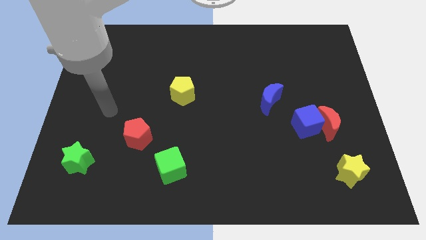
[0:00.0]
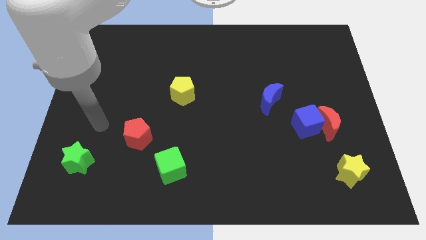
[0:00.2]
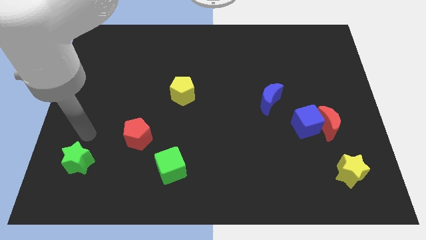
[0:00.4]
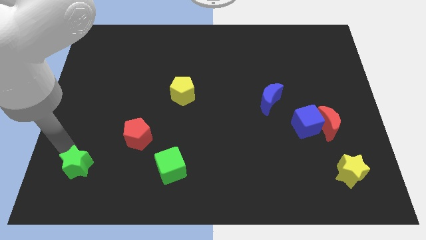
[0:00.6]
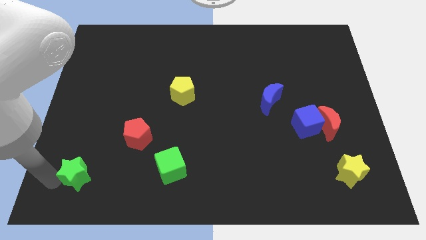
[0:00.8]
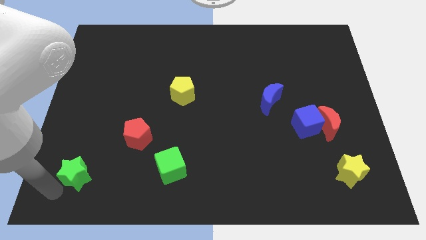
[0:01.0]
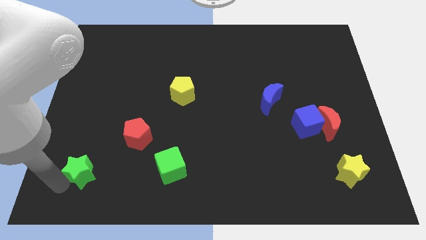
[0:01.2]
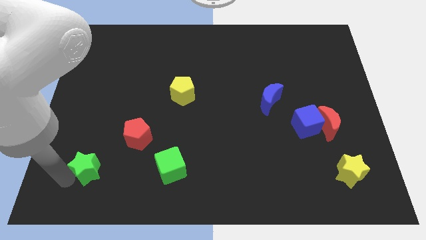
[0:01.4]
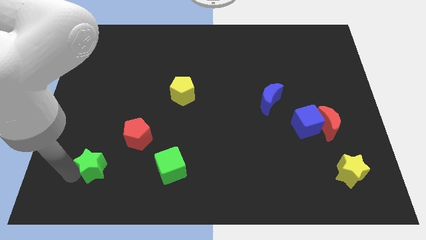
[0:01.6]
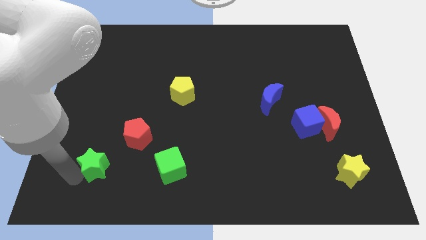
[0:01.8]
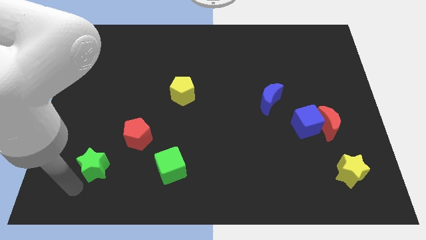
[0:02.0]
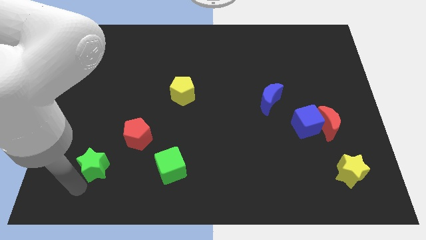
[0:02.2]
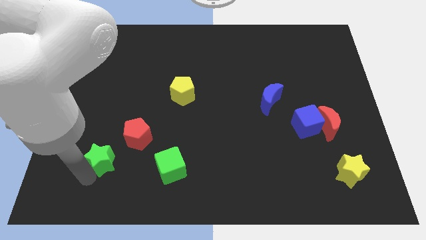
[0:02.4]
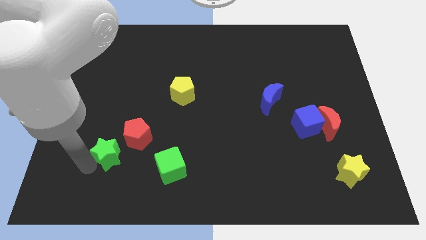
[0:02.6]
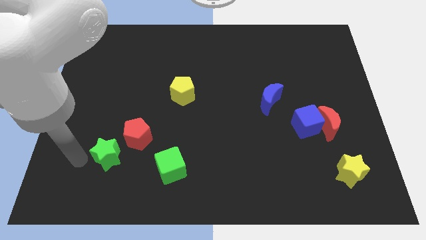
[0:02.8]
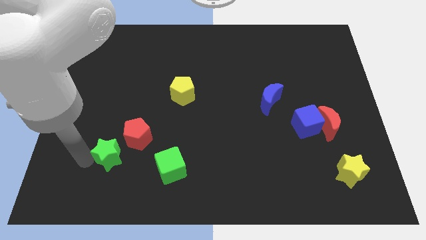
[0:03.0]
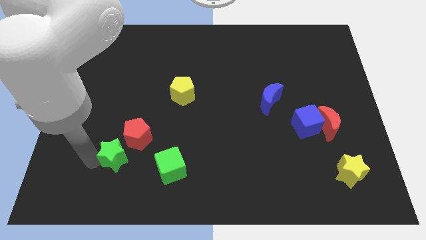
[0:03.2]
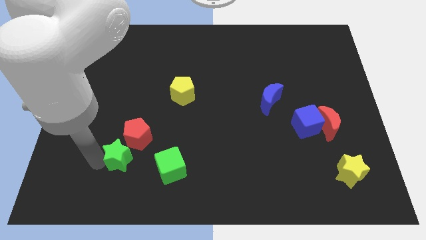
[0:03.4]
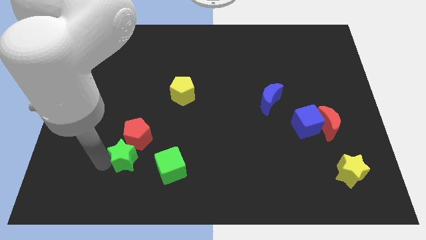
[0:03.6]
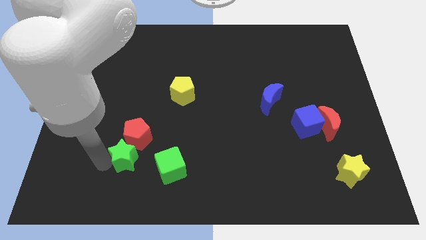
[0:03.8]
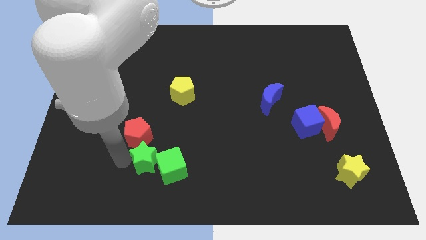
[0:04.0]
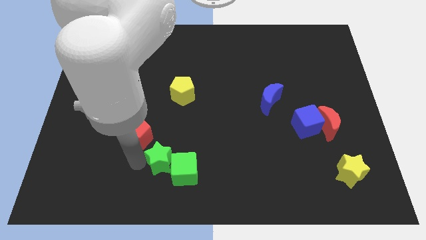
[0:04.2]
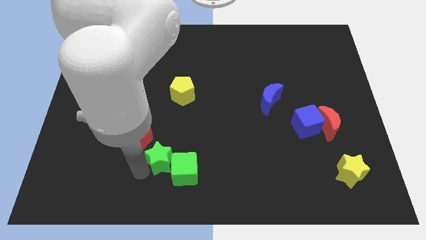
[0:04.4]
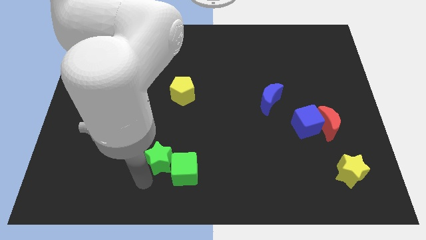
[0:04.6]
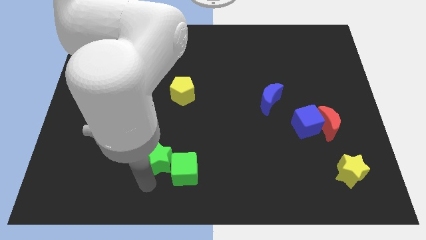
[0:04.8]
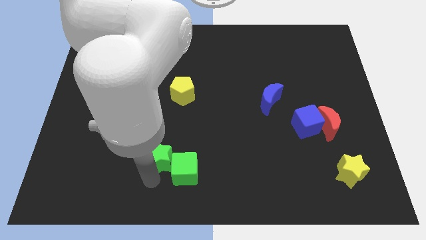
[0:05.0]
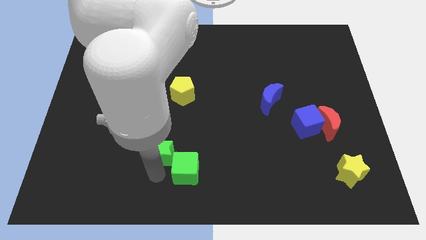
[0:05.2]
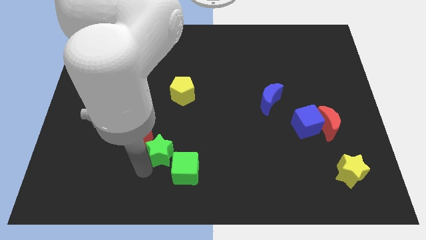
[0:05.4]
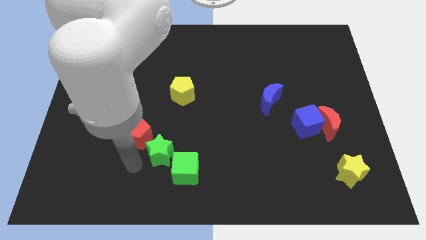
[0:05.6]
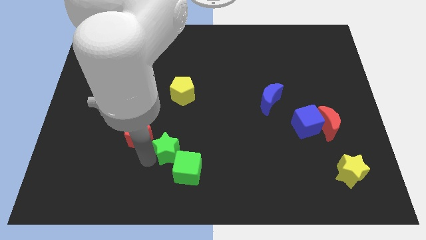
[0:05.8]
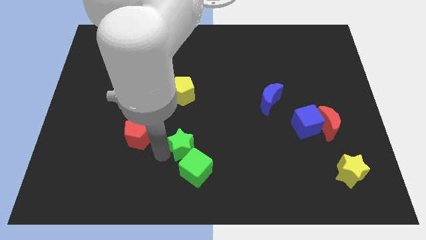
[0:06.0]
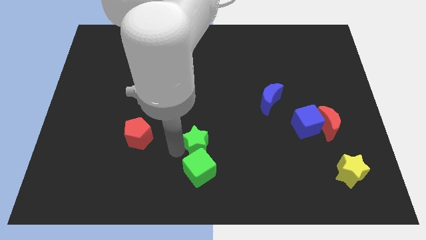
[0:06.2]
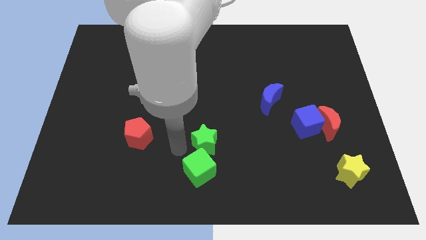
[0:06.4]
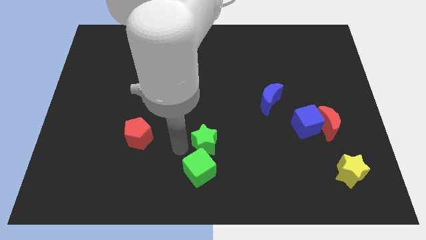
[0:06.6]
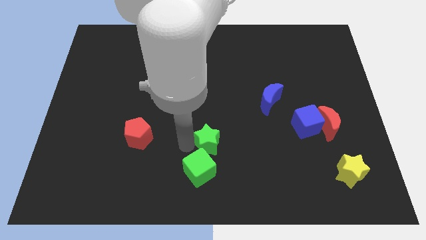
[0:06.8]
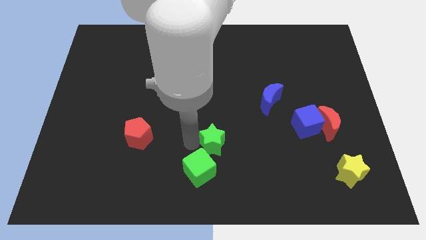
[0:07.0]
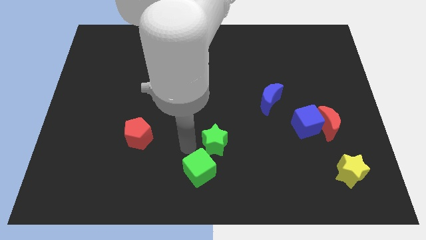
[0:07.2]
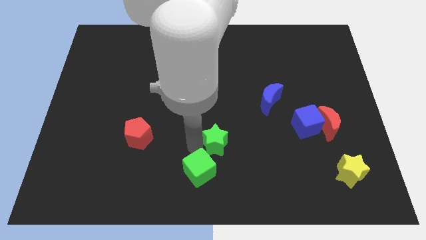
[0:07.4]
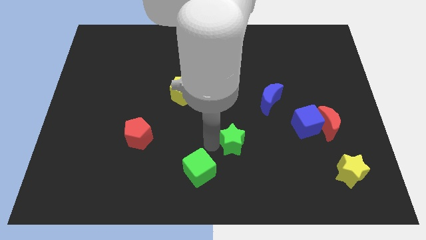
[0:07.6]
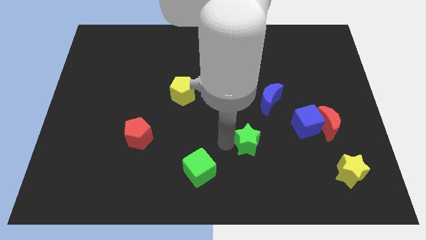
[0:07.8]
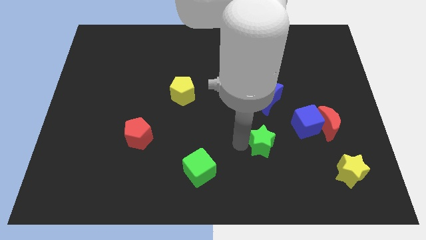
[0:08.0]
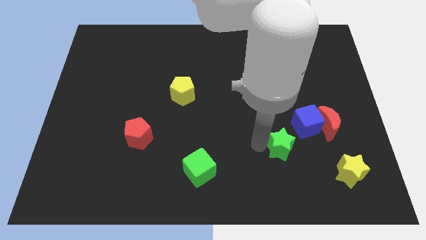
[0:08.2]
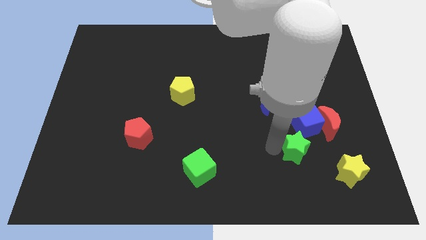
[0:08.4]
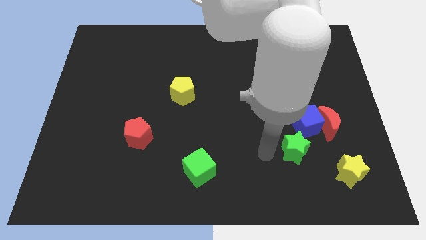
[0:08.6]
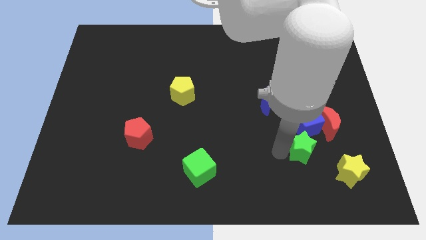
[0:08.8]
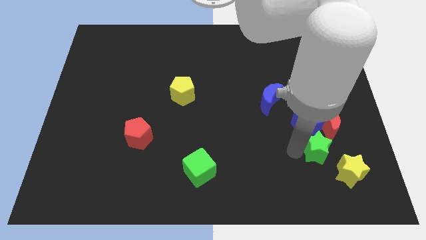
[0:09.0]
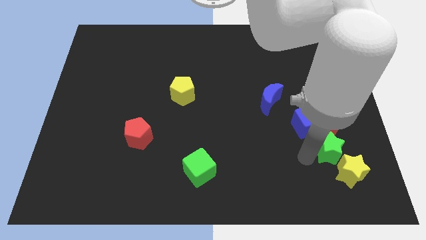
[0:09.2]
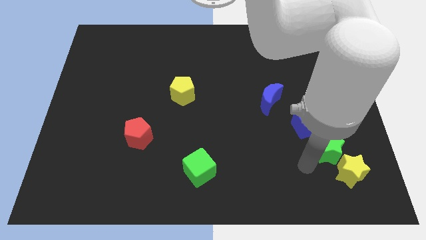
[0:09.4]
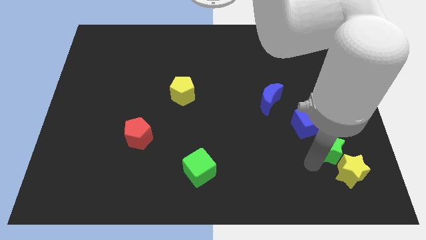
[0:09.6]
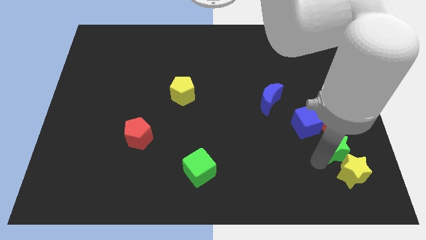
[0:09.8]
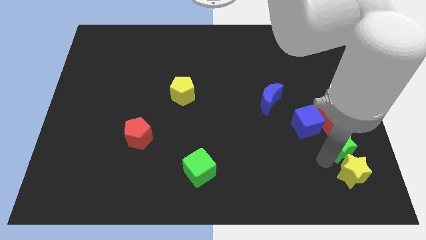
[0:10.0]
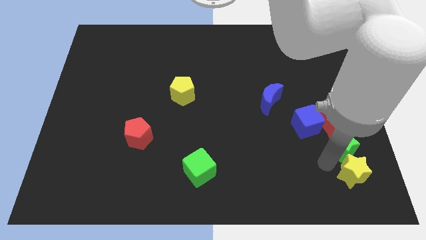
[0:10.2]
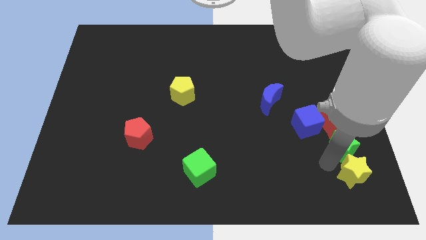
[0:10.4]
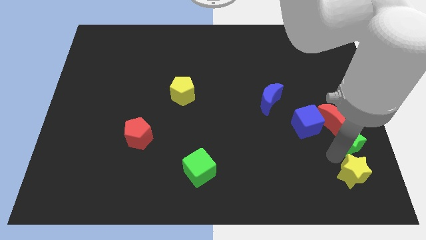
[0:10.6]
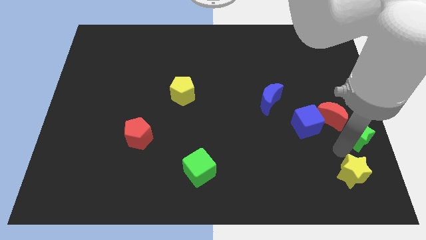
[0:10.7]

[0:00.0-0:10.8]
slide the green star to the center right

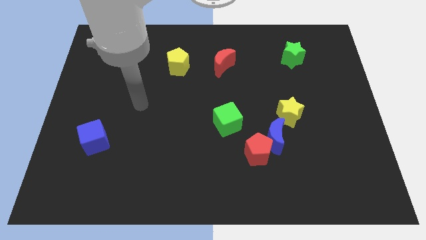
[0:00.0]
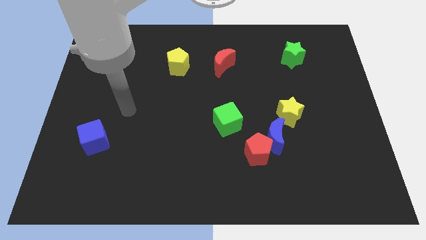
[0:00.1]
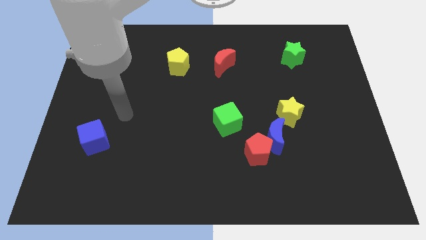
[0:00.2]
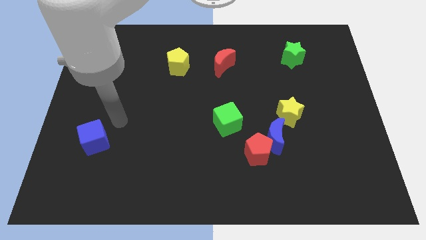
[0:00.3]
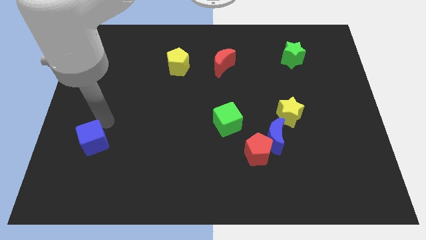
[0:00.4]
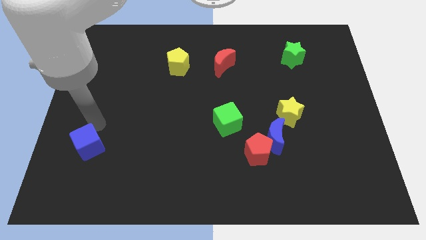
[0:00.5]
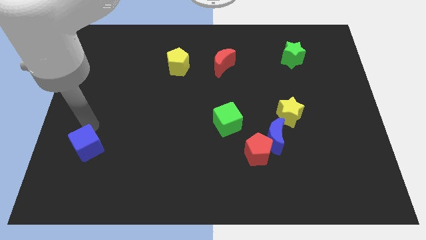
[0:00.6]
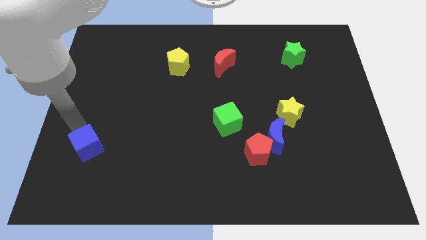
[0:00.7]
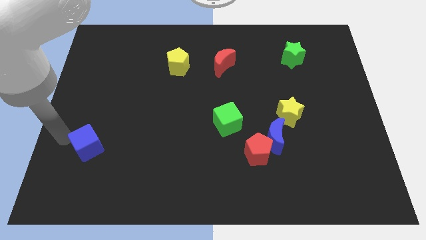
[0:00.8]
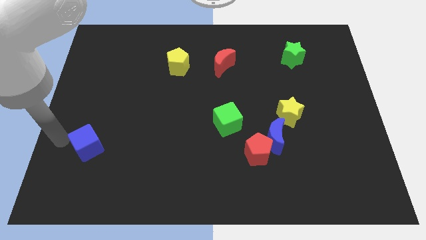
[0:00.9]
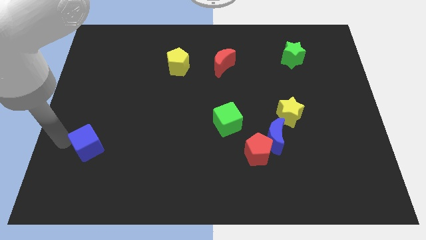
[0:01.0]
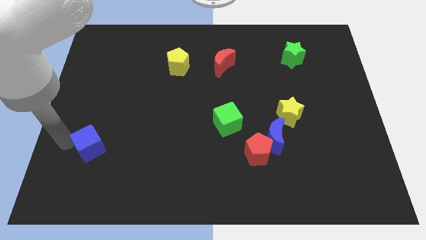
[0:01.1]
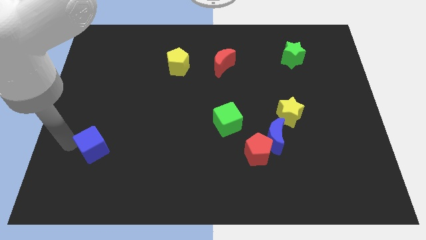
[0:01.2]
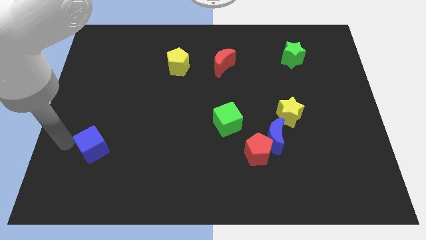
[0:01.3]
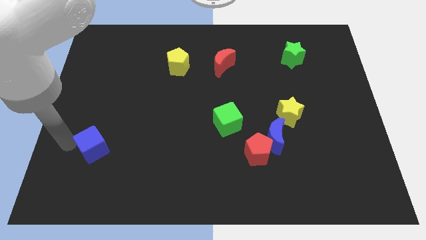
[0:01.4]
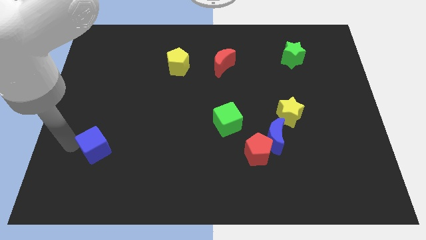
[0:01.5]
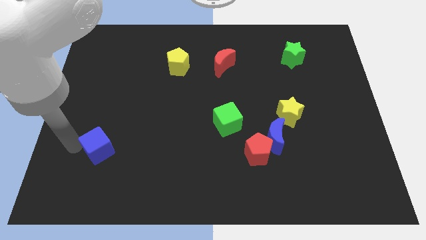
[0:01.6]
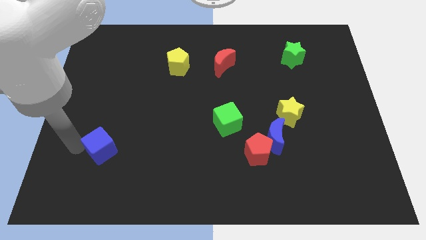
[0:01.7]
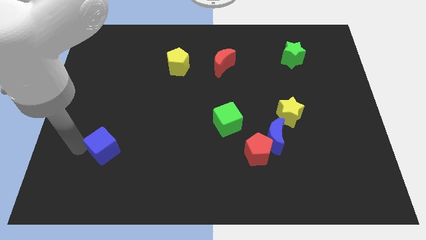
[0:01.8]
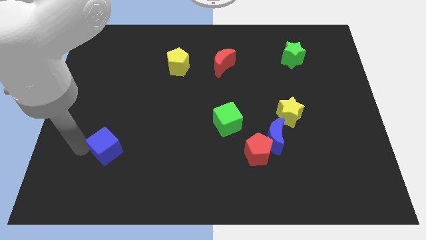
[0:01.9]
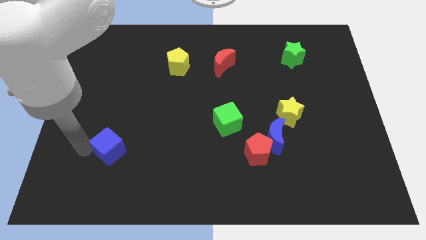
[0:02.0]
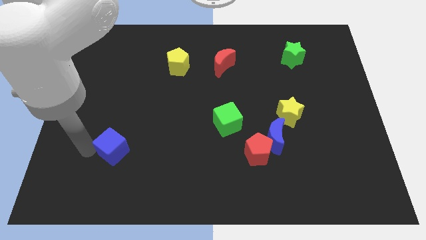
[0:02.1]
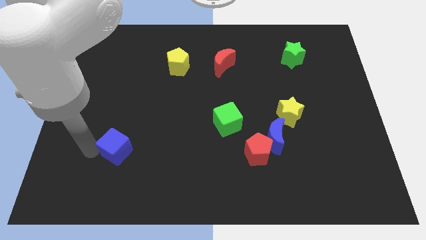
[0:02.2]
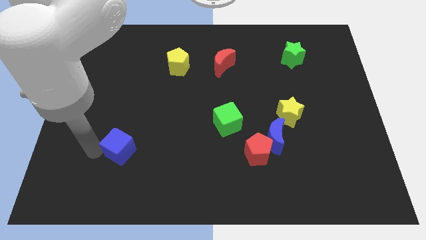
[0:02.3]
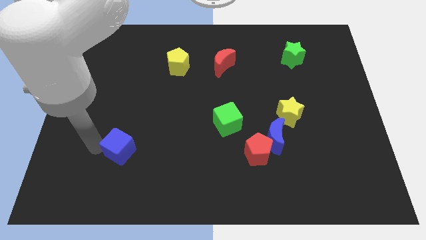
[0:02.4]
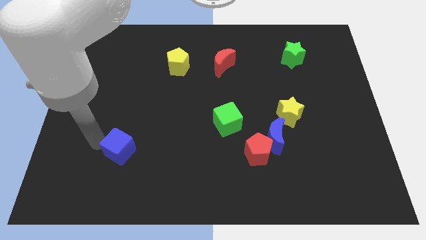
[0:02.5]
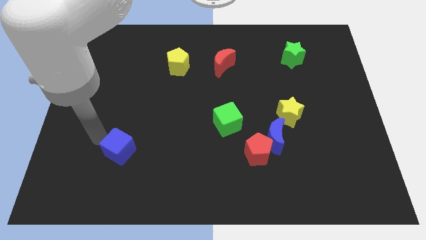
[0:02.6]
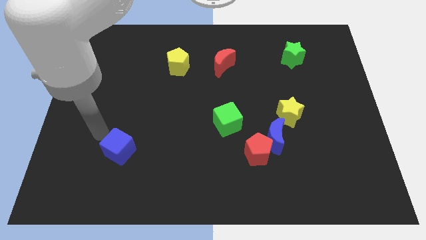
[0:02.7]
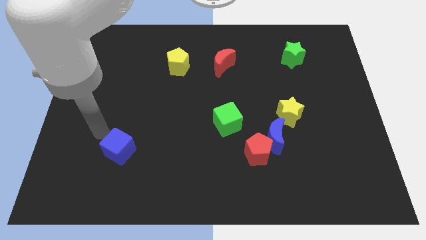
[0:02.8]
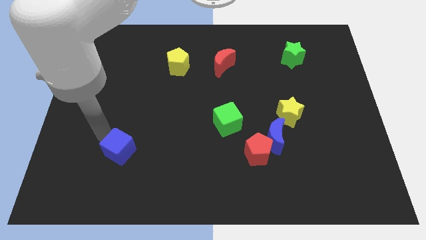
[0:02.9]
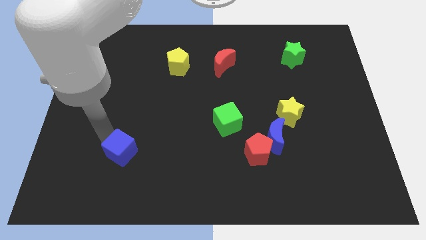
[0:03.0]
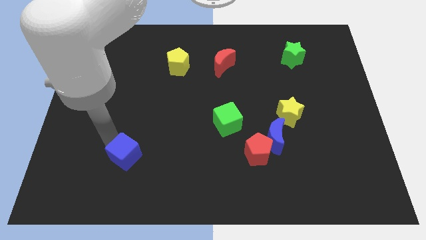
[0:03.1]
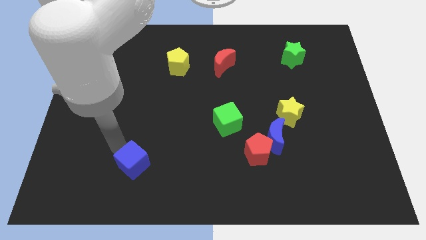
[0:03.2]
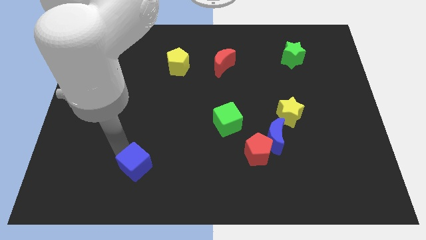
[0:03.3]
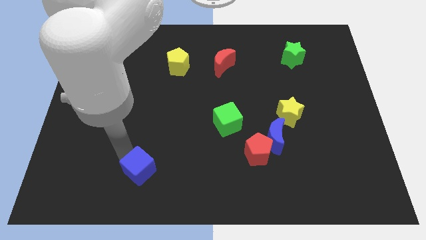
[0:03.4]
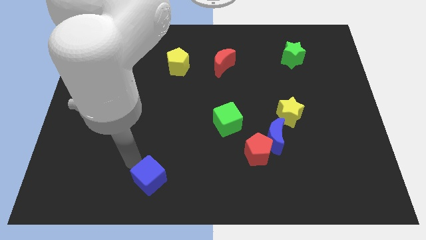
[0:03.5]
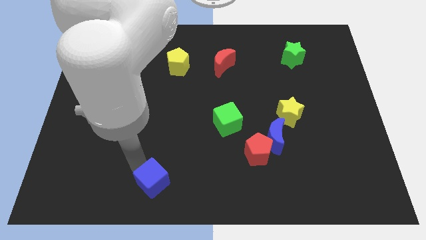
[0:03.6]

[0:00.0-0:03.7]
put the blue cube to the bottom side
